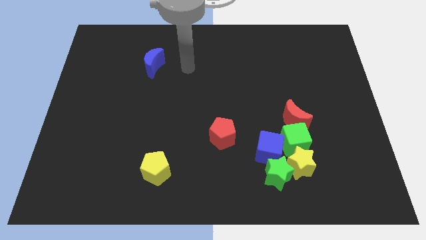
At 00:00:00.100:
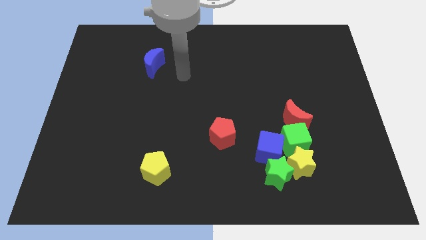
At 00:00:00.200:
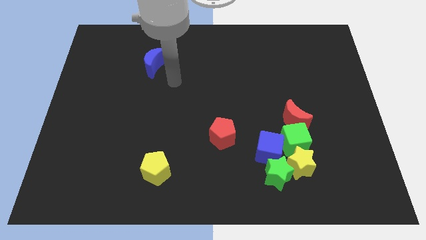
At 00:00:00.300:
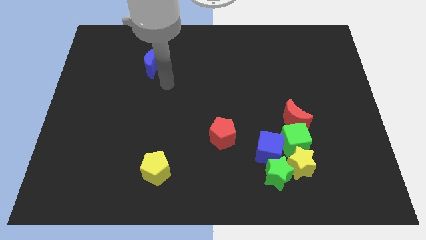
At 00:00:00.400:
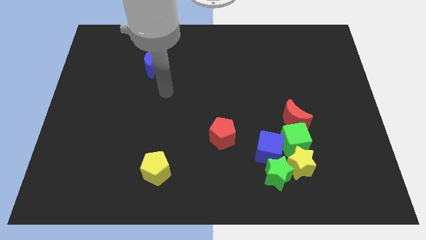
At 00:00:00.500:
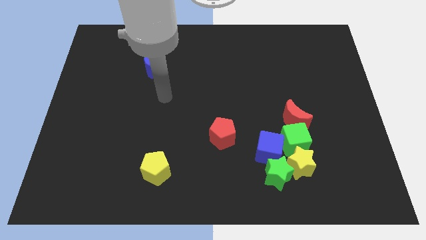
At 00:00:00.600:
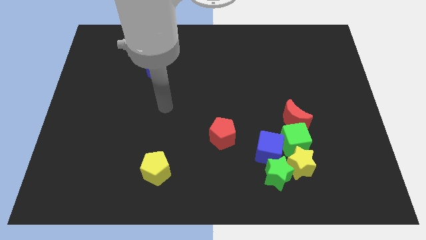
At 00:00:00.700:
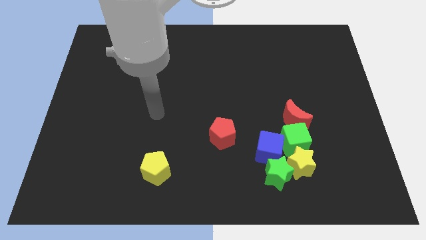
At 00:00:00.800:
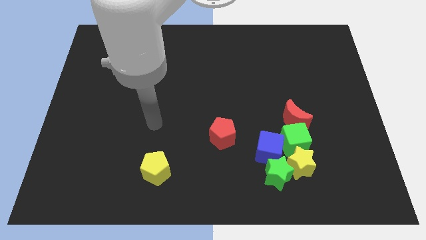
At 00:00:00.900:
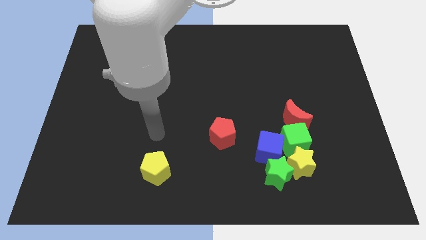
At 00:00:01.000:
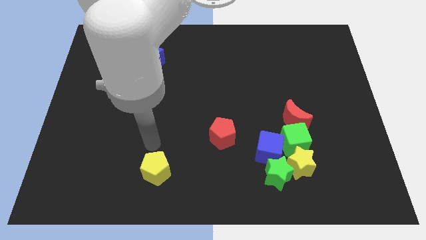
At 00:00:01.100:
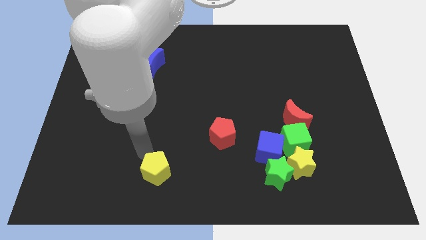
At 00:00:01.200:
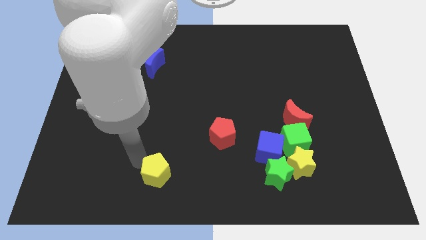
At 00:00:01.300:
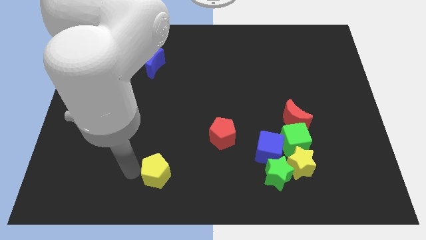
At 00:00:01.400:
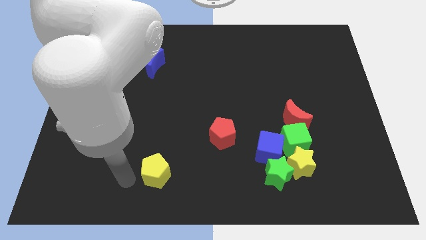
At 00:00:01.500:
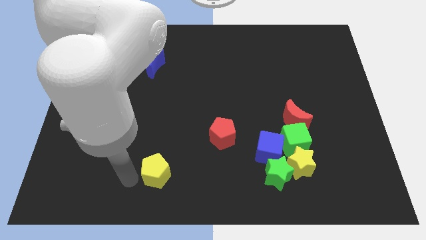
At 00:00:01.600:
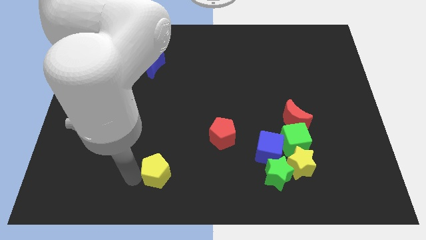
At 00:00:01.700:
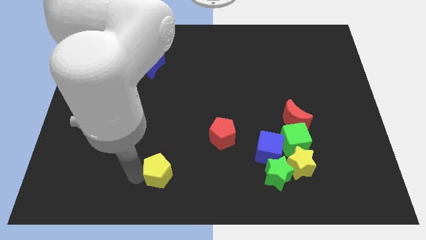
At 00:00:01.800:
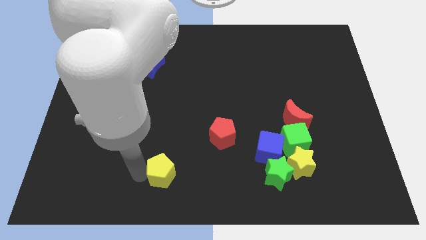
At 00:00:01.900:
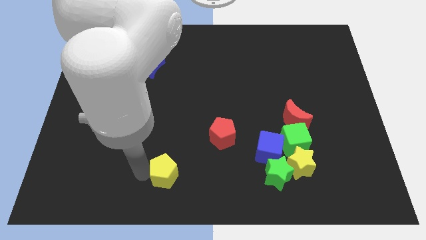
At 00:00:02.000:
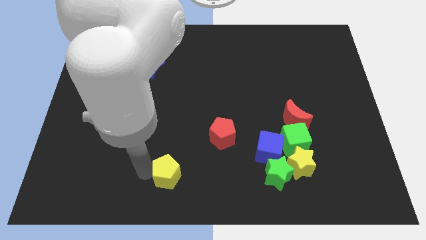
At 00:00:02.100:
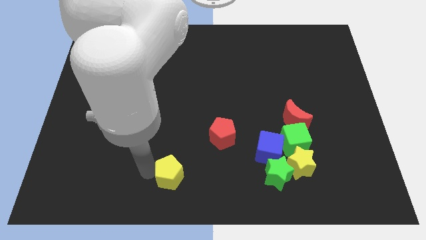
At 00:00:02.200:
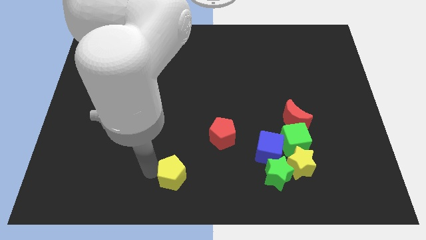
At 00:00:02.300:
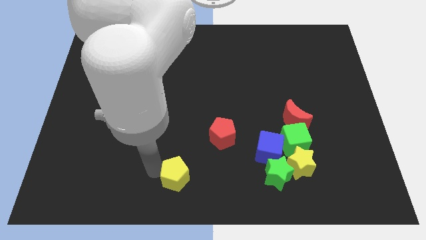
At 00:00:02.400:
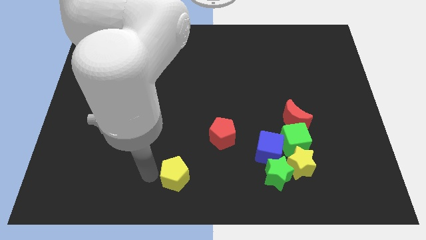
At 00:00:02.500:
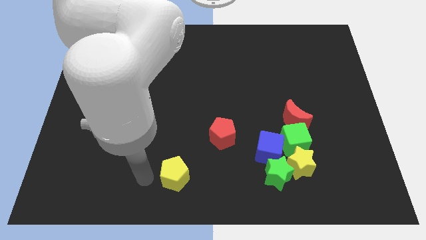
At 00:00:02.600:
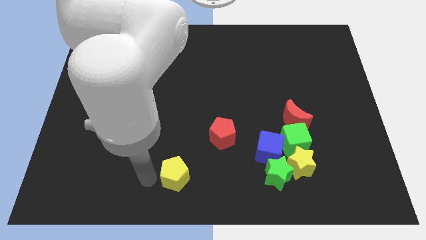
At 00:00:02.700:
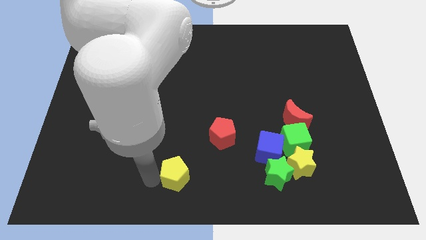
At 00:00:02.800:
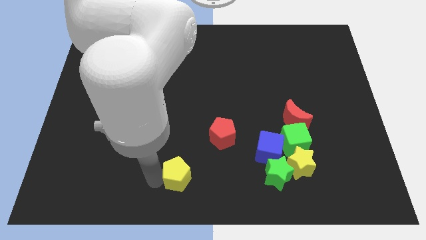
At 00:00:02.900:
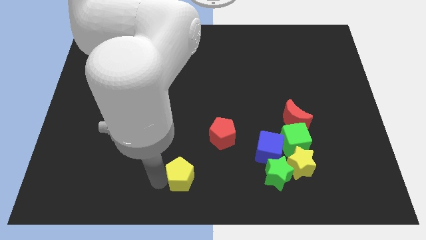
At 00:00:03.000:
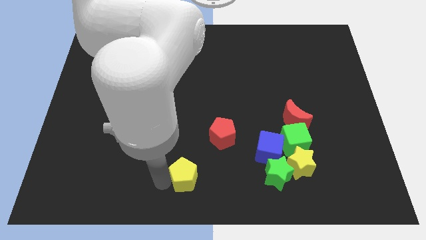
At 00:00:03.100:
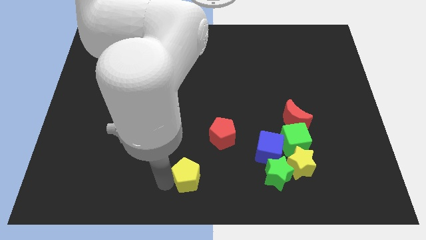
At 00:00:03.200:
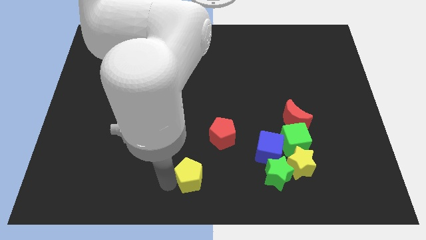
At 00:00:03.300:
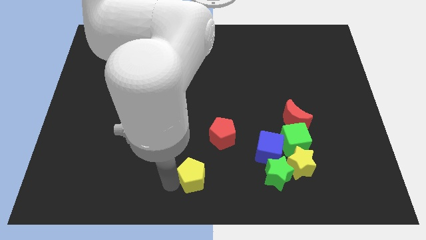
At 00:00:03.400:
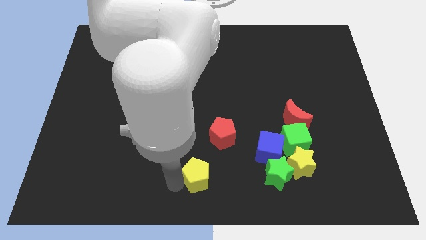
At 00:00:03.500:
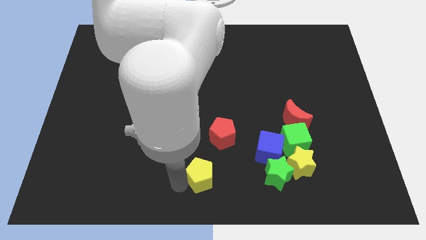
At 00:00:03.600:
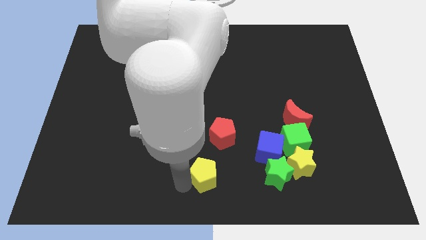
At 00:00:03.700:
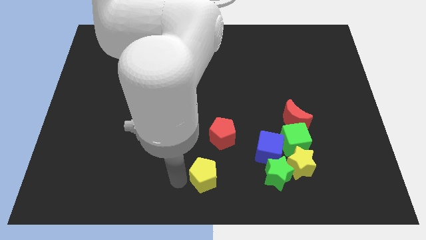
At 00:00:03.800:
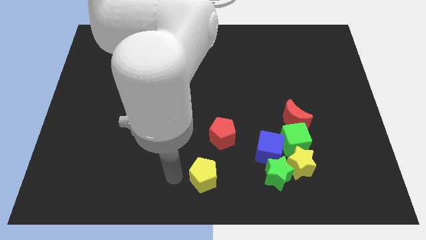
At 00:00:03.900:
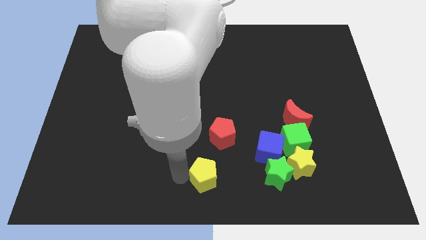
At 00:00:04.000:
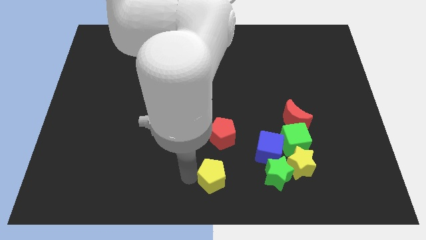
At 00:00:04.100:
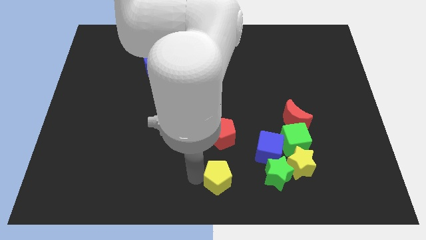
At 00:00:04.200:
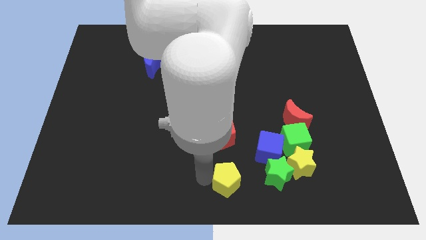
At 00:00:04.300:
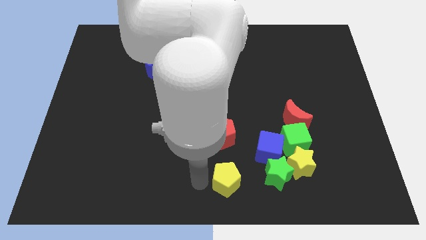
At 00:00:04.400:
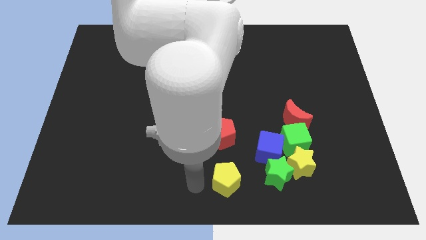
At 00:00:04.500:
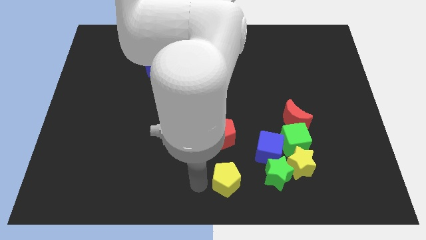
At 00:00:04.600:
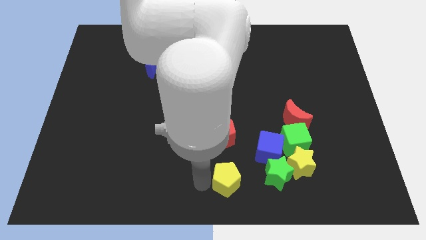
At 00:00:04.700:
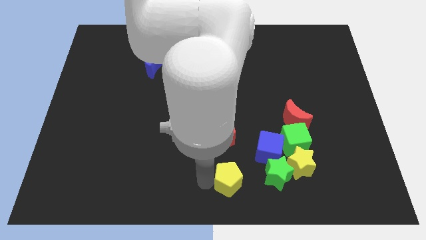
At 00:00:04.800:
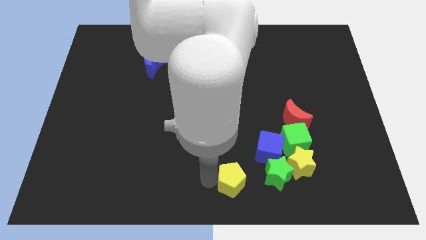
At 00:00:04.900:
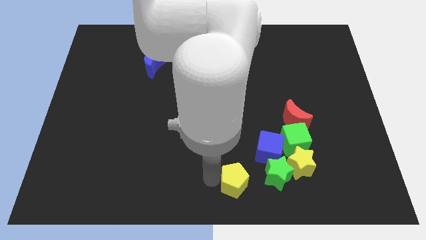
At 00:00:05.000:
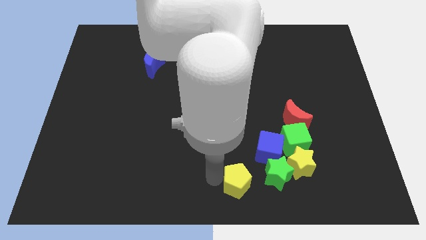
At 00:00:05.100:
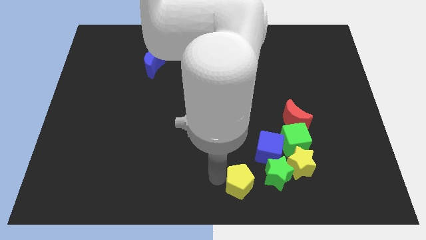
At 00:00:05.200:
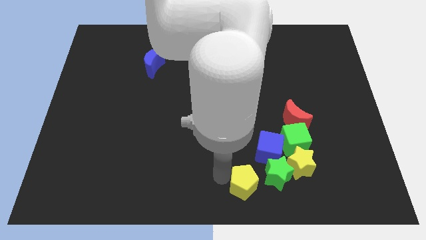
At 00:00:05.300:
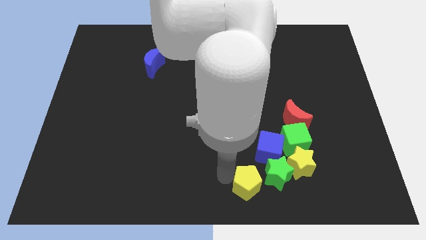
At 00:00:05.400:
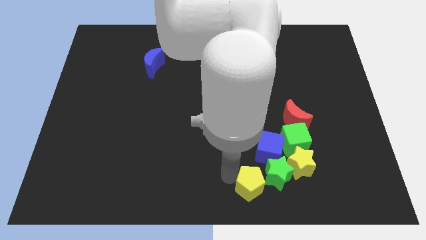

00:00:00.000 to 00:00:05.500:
put the yellow pentagon towards the green star

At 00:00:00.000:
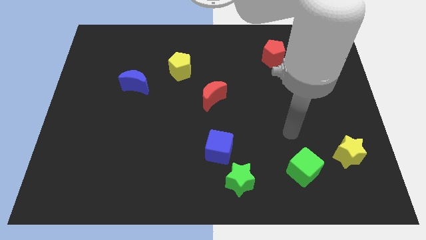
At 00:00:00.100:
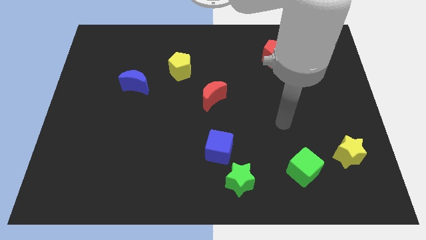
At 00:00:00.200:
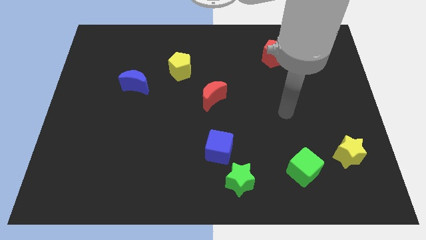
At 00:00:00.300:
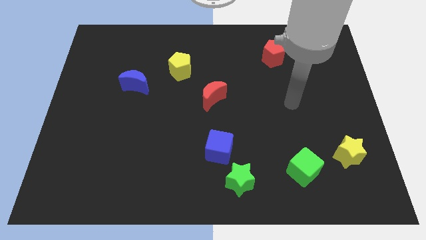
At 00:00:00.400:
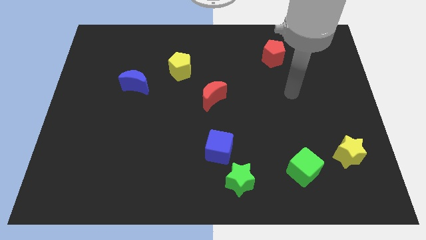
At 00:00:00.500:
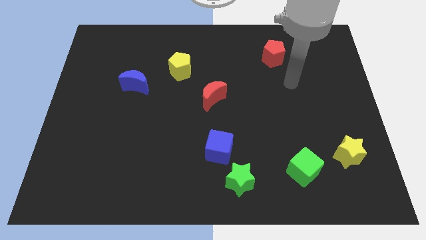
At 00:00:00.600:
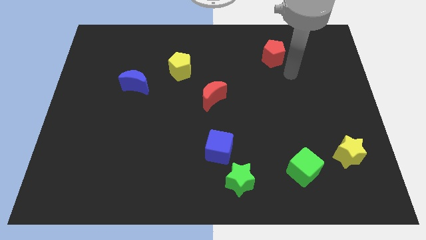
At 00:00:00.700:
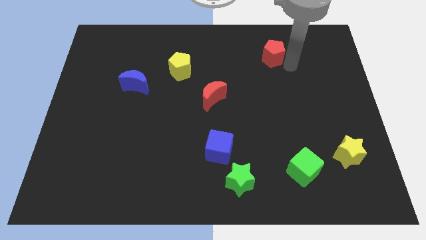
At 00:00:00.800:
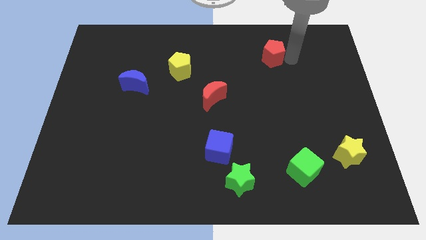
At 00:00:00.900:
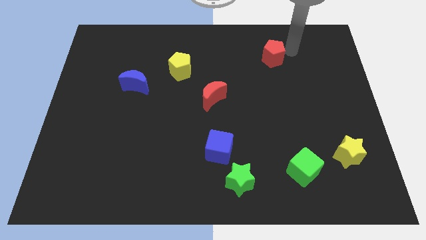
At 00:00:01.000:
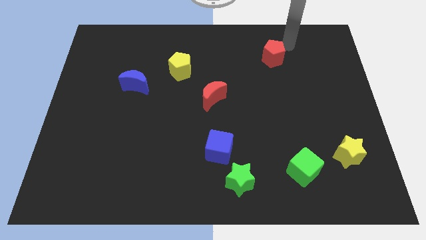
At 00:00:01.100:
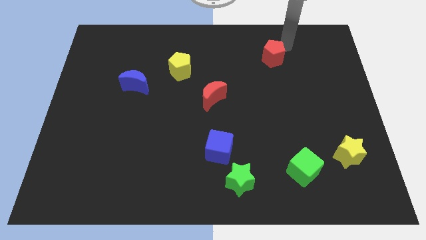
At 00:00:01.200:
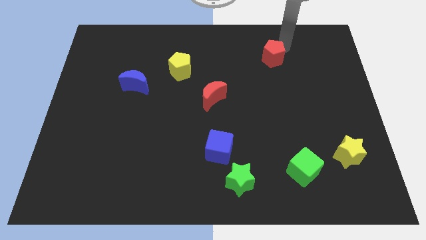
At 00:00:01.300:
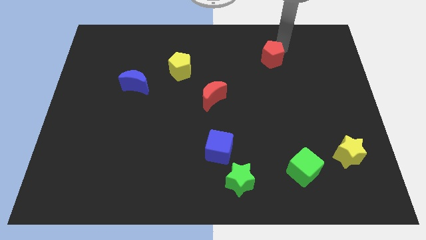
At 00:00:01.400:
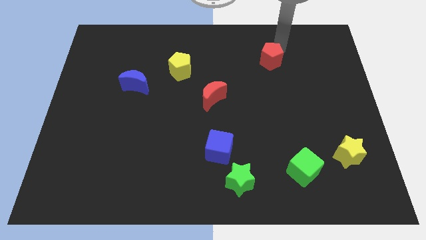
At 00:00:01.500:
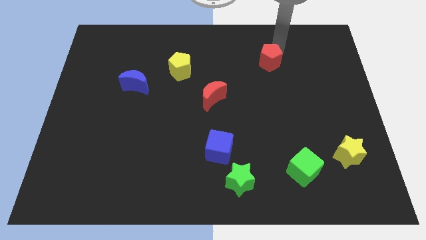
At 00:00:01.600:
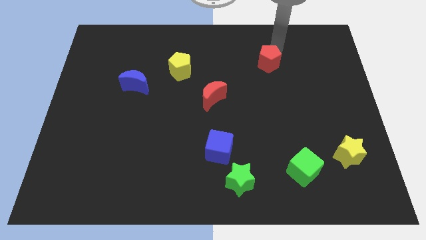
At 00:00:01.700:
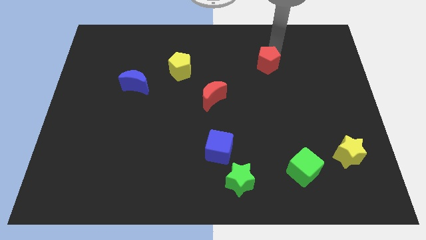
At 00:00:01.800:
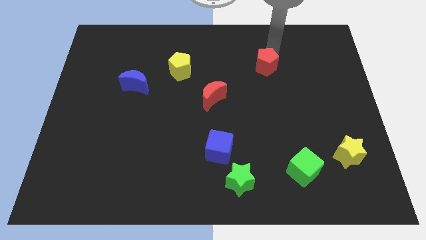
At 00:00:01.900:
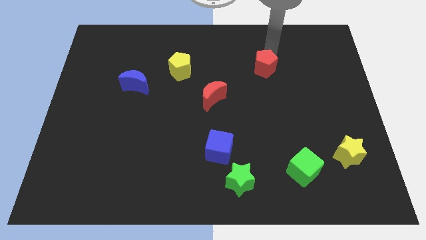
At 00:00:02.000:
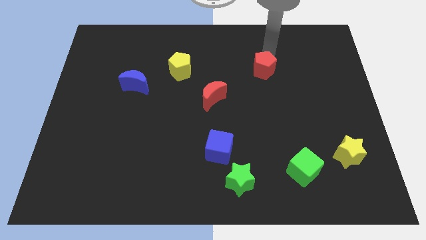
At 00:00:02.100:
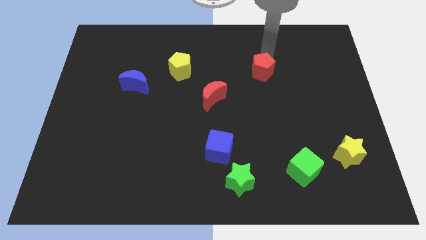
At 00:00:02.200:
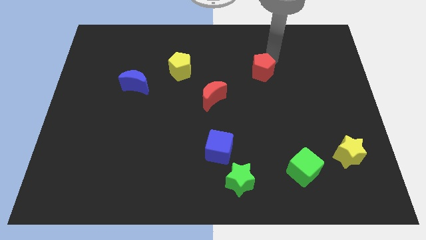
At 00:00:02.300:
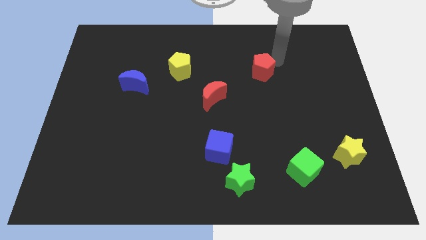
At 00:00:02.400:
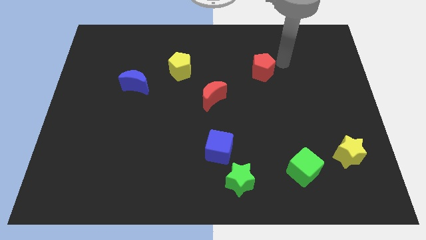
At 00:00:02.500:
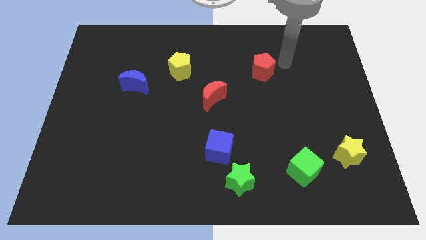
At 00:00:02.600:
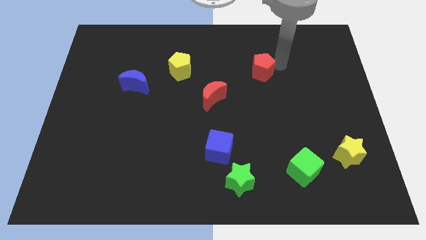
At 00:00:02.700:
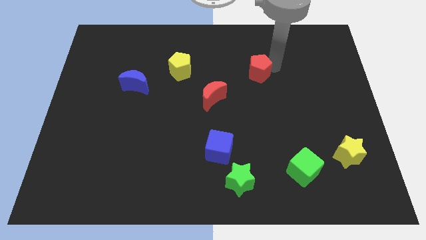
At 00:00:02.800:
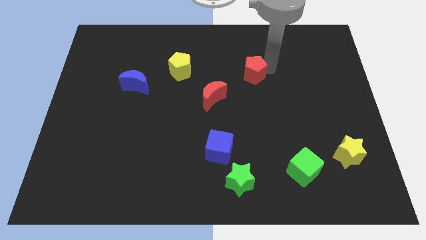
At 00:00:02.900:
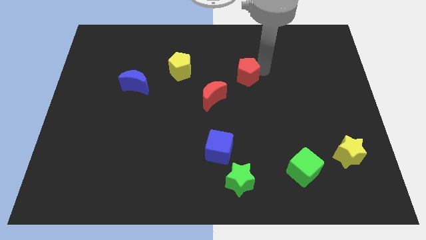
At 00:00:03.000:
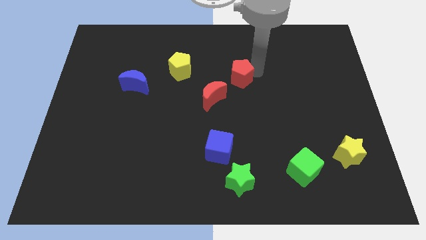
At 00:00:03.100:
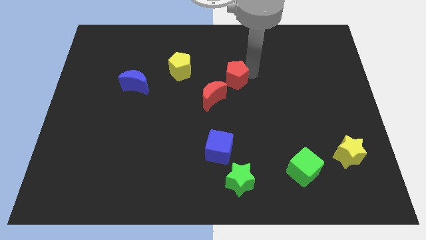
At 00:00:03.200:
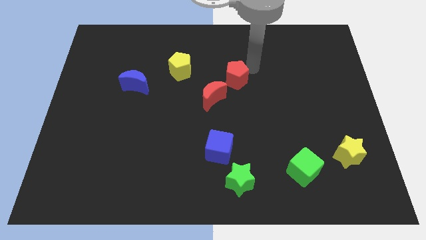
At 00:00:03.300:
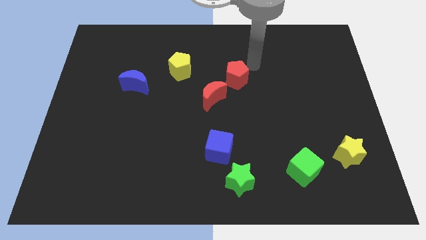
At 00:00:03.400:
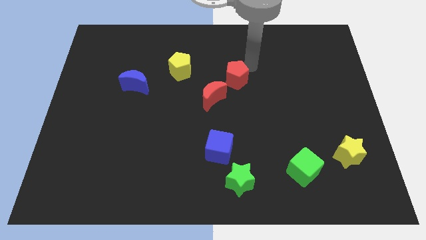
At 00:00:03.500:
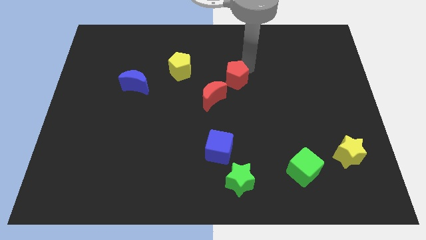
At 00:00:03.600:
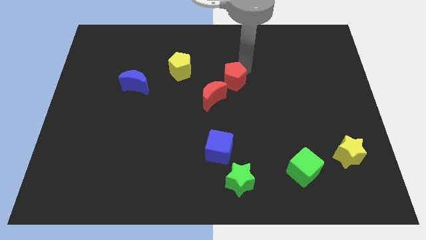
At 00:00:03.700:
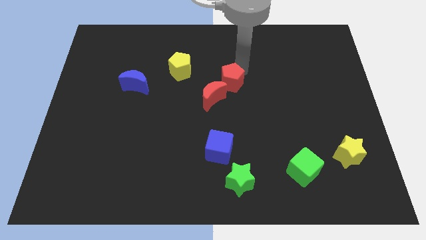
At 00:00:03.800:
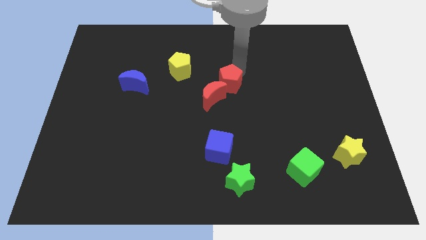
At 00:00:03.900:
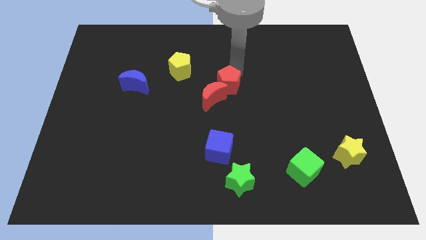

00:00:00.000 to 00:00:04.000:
move the red pentagon to the red moon
